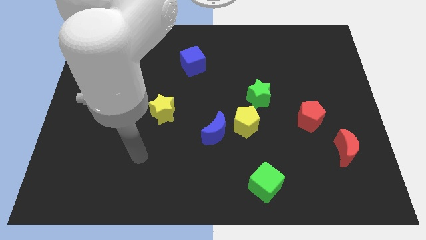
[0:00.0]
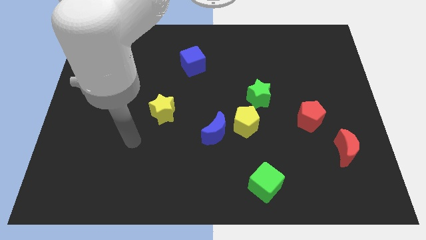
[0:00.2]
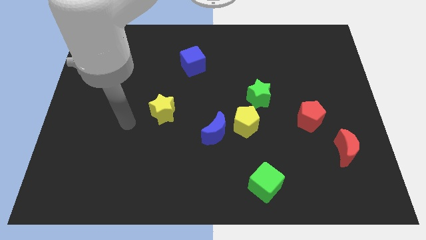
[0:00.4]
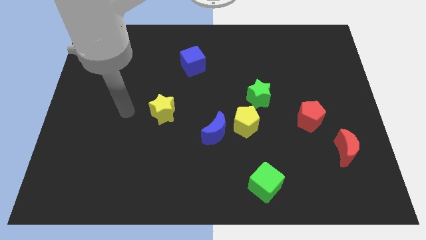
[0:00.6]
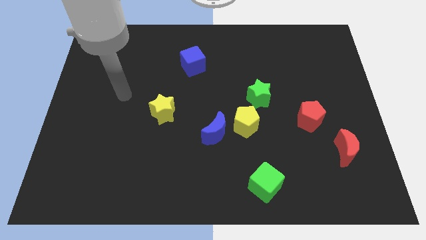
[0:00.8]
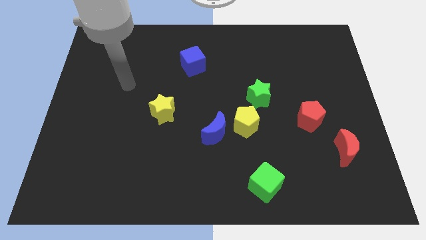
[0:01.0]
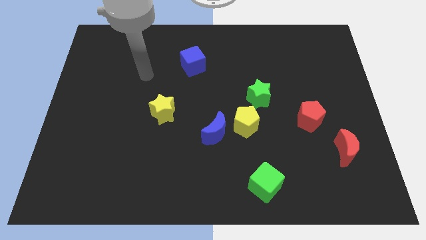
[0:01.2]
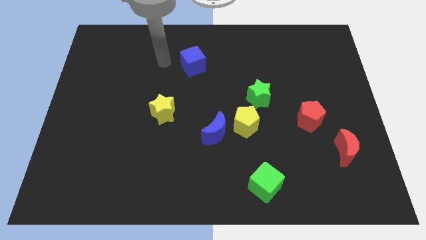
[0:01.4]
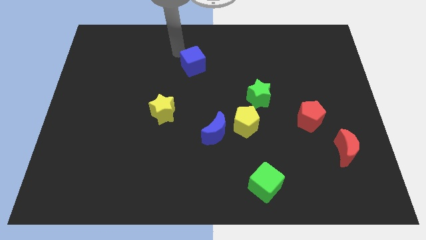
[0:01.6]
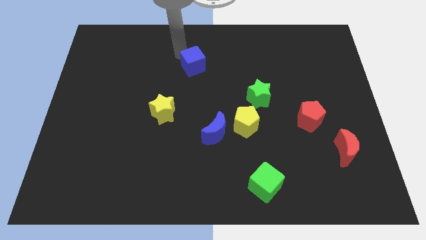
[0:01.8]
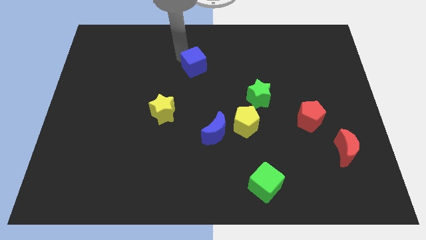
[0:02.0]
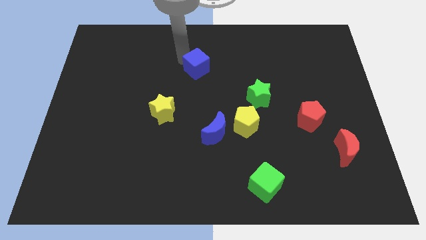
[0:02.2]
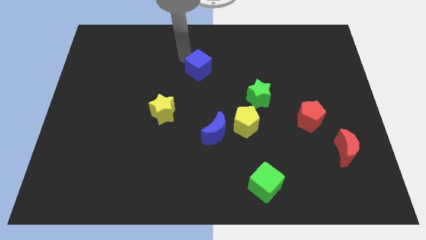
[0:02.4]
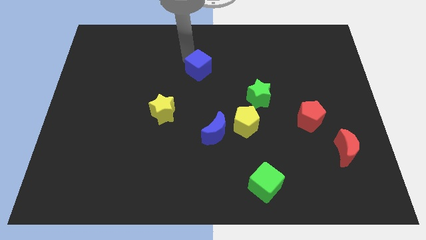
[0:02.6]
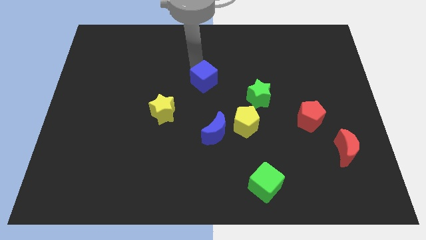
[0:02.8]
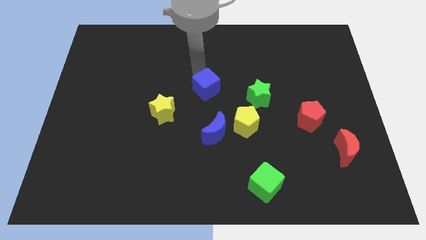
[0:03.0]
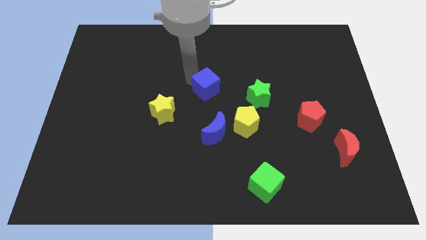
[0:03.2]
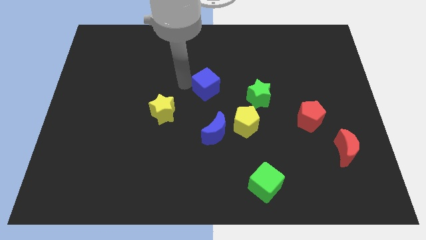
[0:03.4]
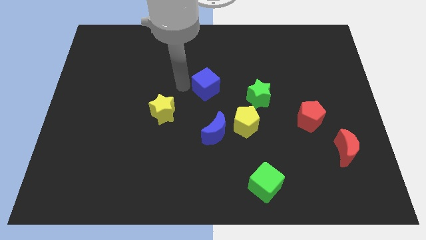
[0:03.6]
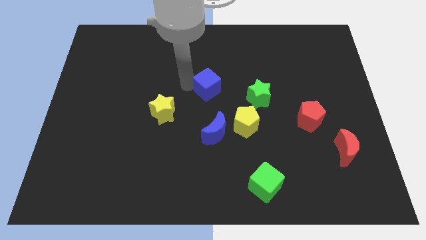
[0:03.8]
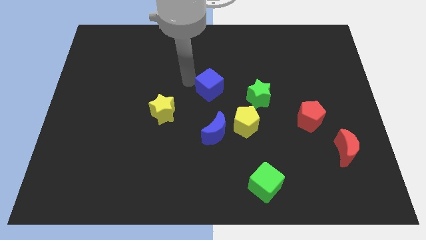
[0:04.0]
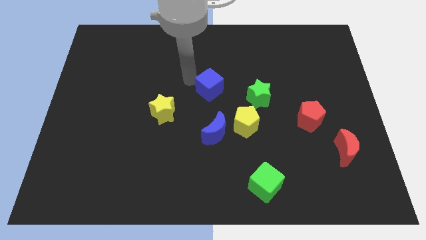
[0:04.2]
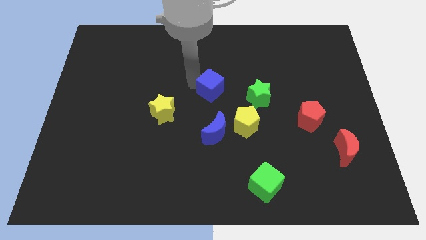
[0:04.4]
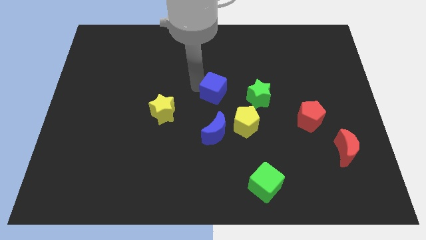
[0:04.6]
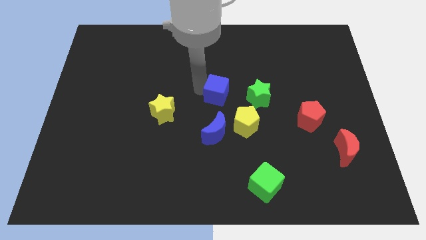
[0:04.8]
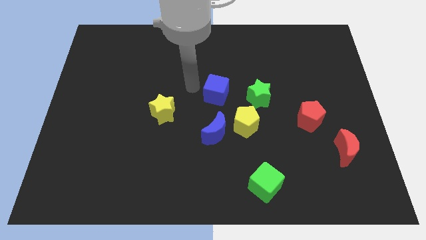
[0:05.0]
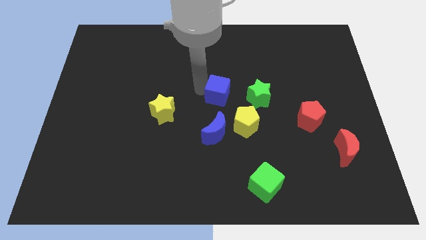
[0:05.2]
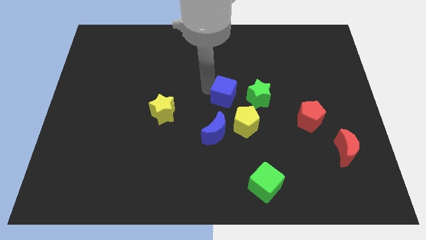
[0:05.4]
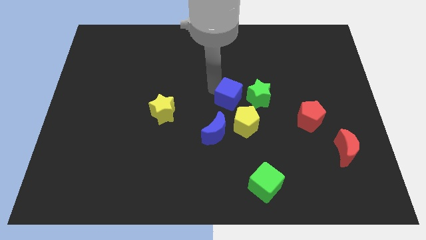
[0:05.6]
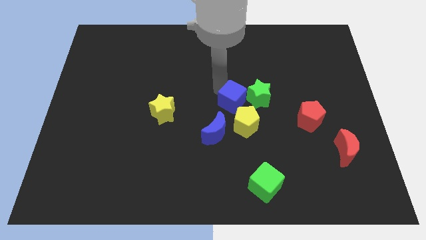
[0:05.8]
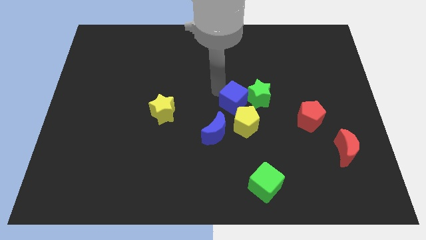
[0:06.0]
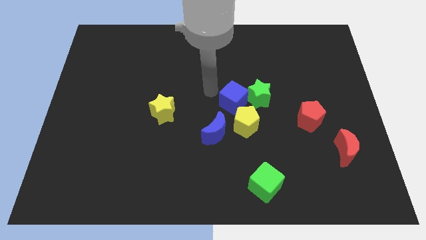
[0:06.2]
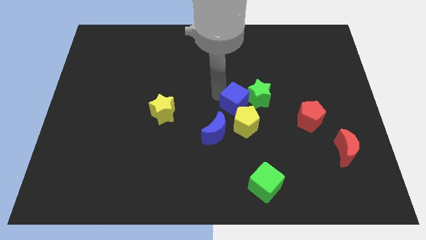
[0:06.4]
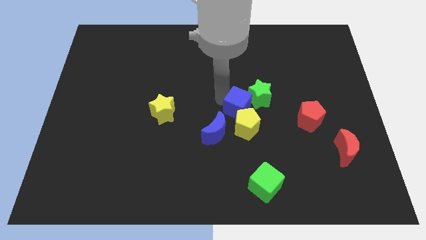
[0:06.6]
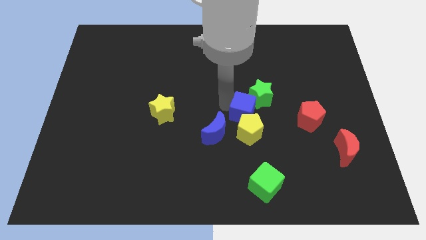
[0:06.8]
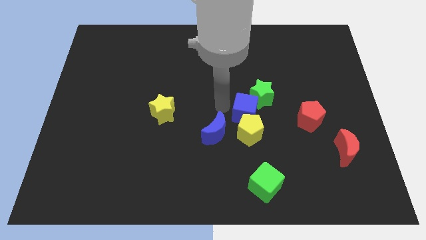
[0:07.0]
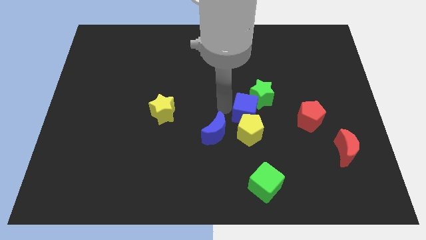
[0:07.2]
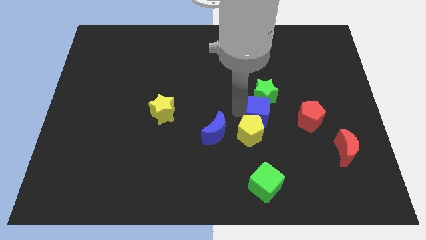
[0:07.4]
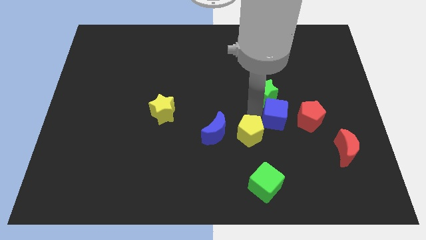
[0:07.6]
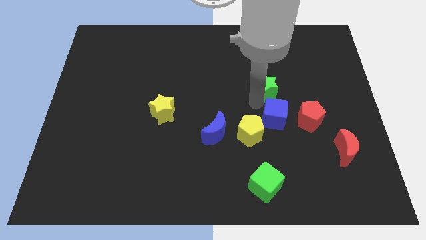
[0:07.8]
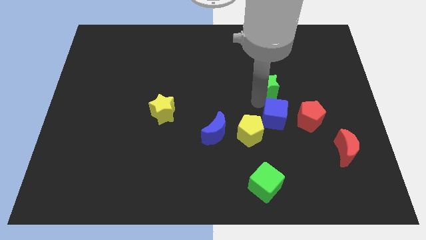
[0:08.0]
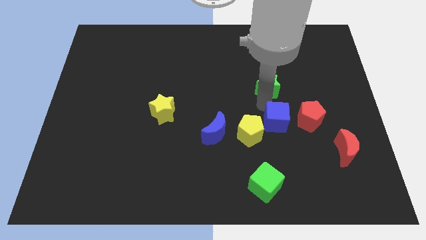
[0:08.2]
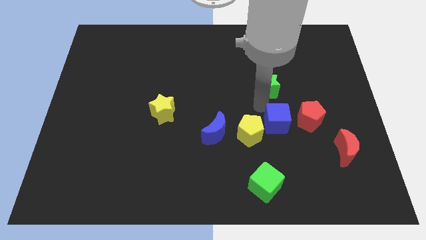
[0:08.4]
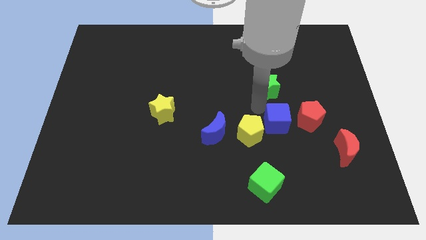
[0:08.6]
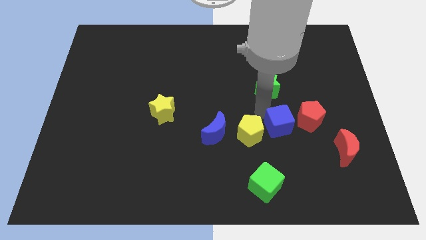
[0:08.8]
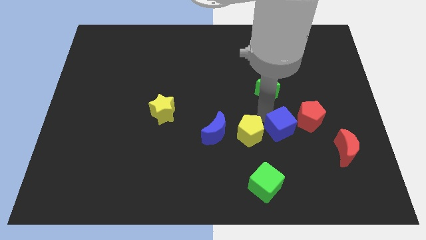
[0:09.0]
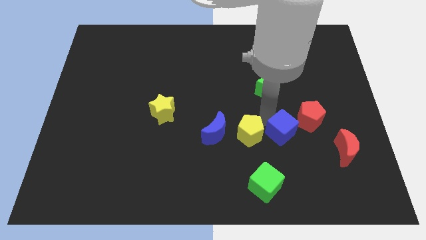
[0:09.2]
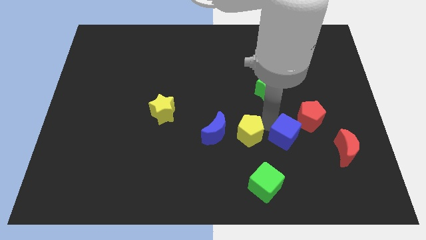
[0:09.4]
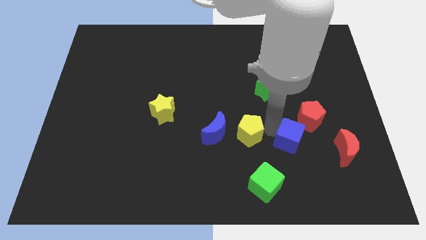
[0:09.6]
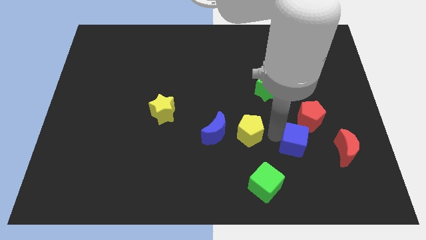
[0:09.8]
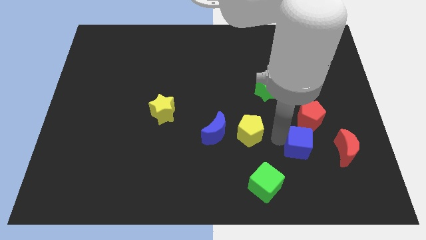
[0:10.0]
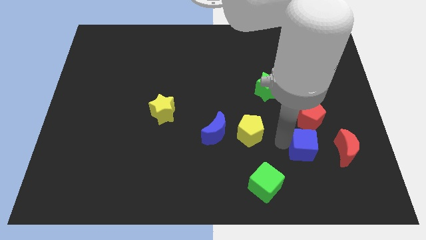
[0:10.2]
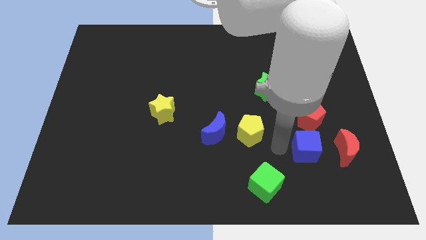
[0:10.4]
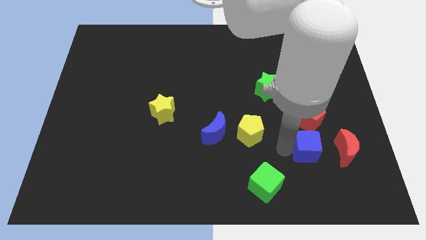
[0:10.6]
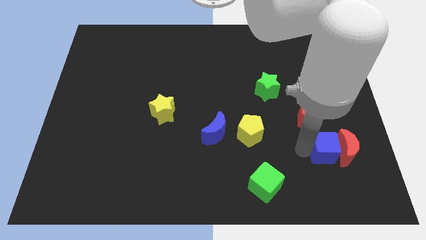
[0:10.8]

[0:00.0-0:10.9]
slide the blue cube next to the red moon

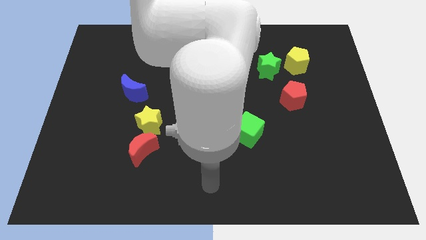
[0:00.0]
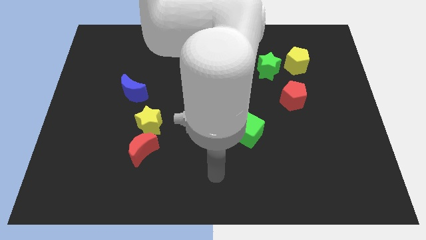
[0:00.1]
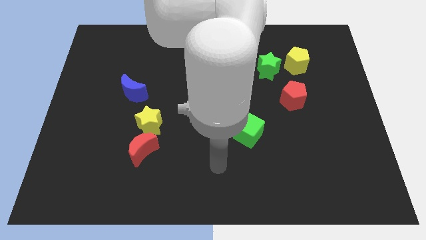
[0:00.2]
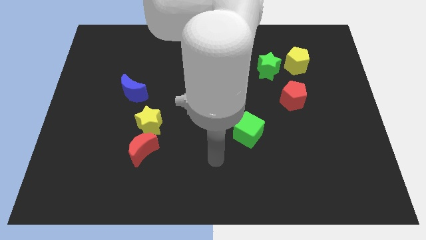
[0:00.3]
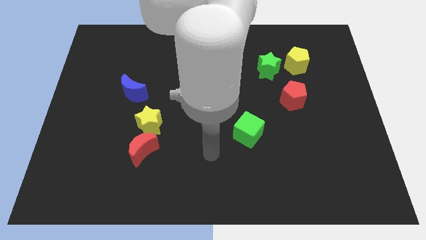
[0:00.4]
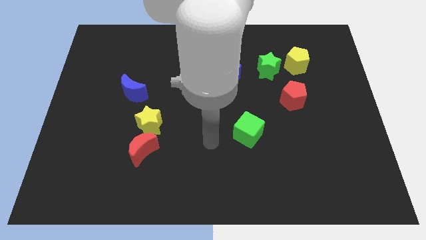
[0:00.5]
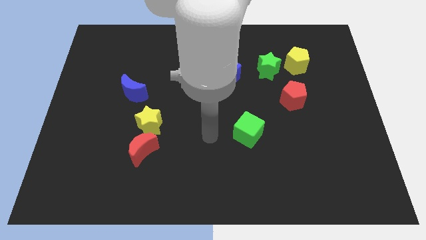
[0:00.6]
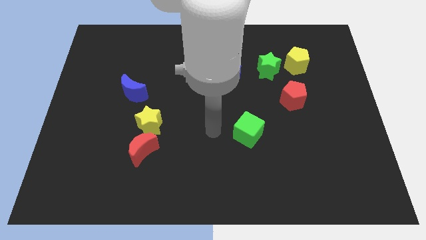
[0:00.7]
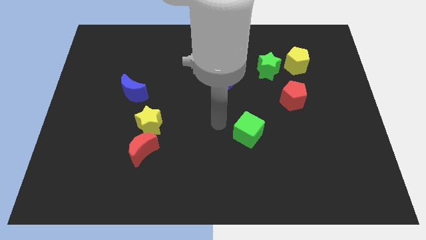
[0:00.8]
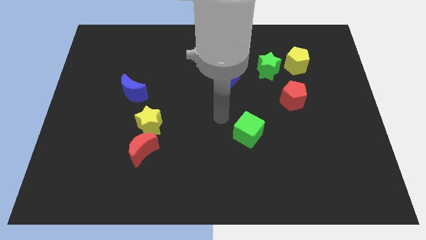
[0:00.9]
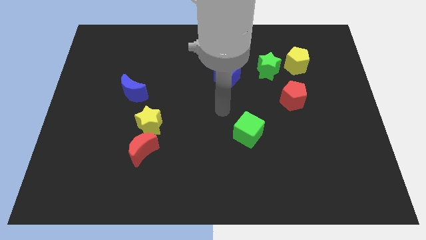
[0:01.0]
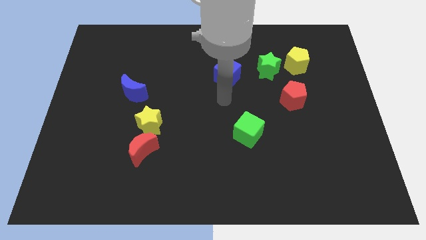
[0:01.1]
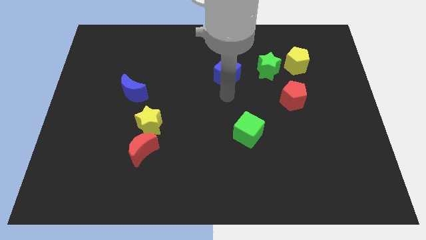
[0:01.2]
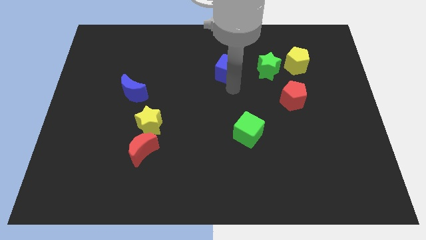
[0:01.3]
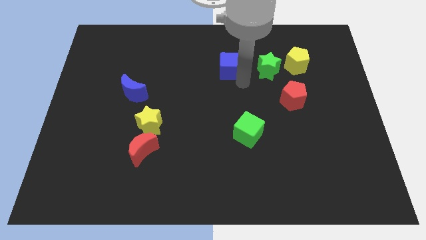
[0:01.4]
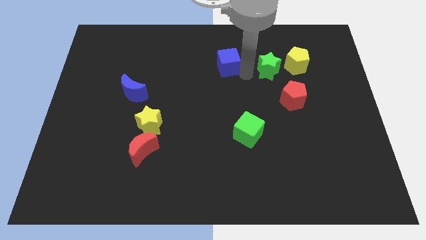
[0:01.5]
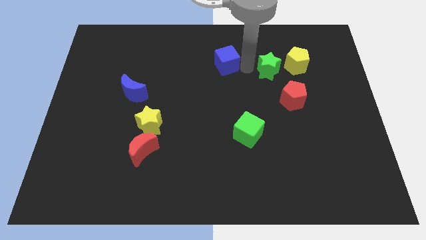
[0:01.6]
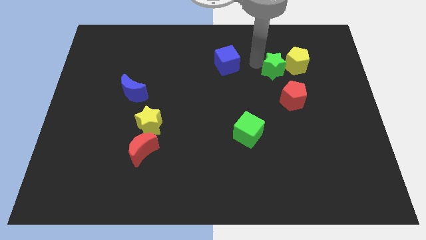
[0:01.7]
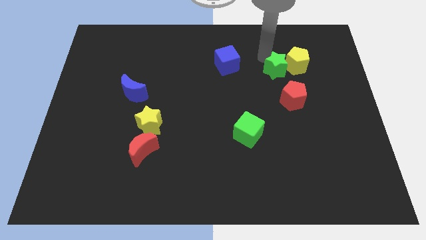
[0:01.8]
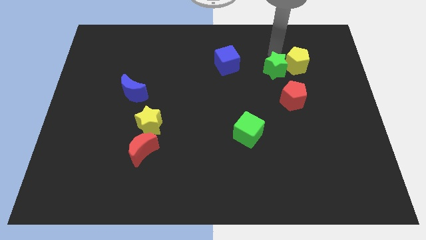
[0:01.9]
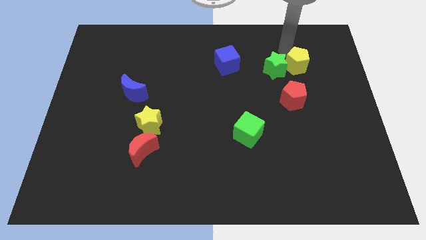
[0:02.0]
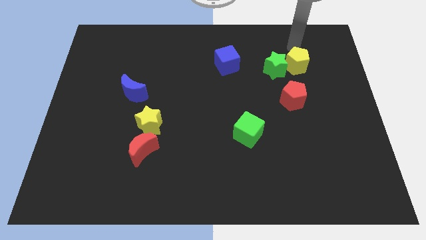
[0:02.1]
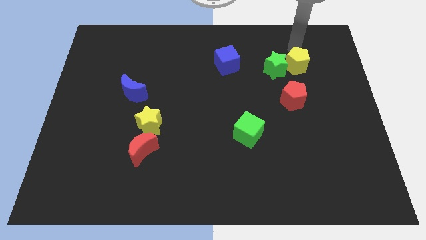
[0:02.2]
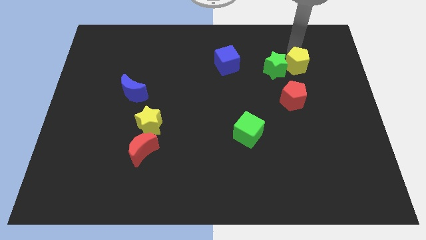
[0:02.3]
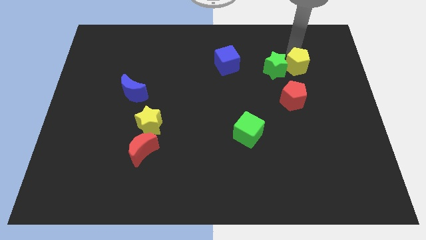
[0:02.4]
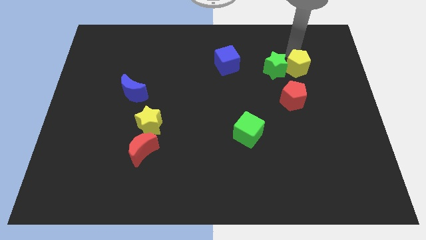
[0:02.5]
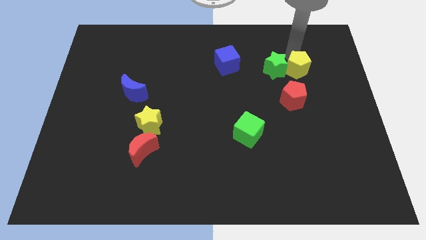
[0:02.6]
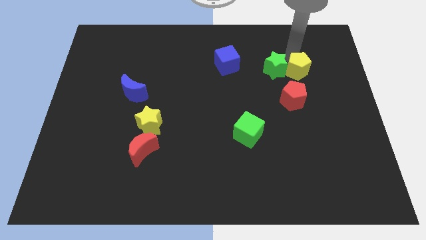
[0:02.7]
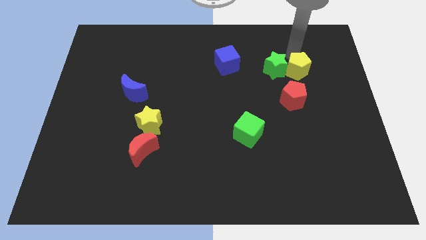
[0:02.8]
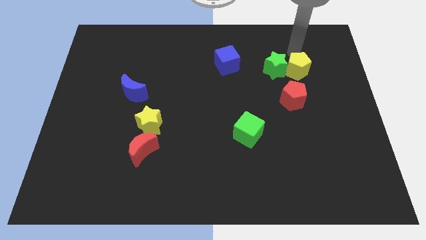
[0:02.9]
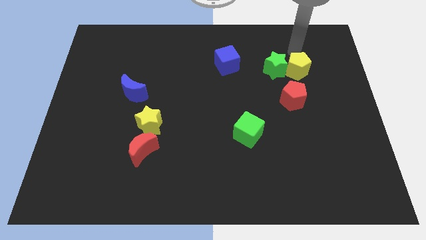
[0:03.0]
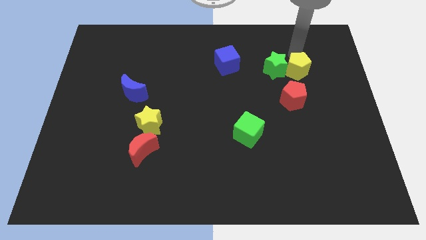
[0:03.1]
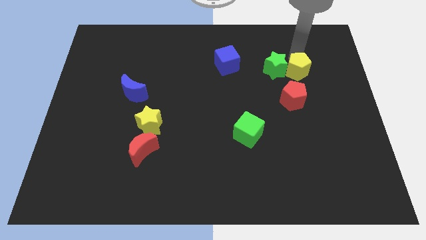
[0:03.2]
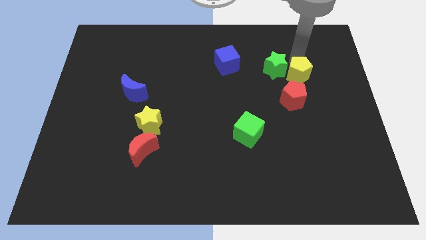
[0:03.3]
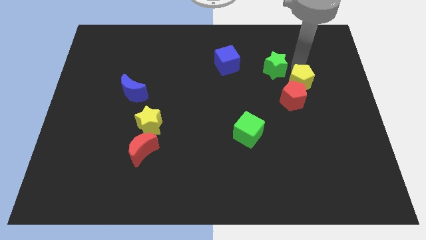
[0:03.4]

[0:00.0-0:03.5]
move the yellow pentagon towards the red pentagon
